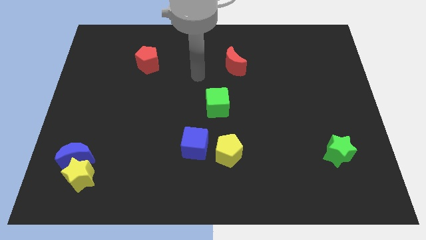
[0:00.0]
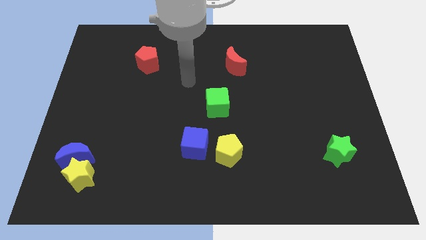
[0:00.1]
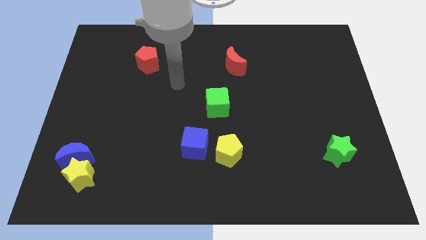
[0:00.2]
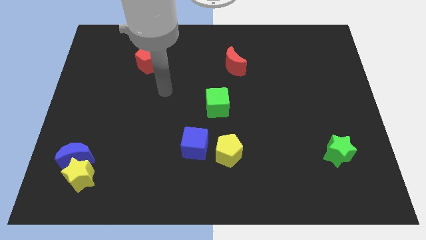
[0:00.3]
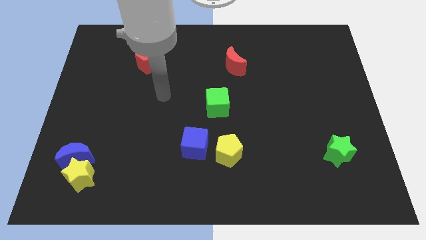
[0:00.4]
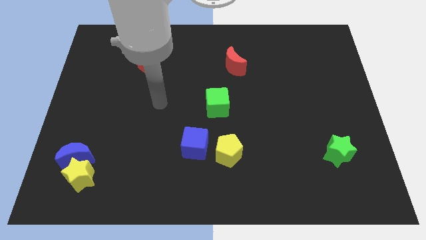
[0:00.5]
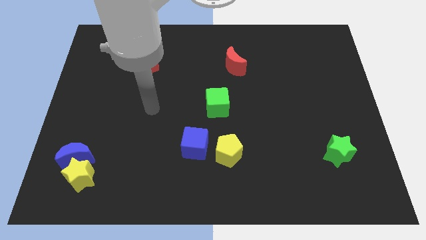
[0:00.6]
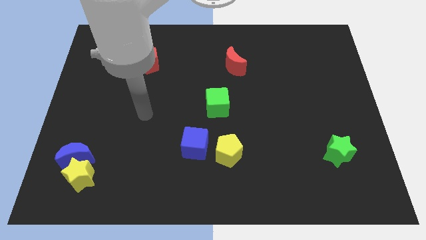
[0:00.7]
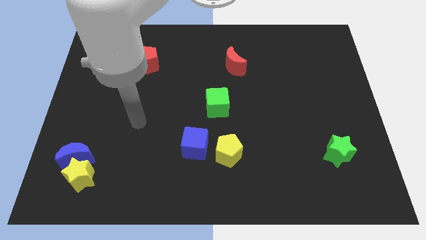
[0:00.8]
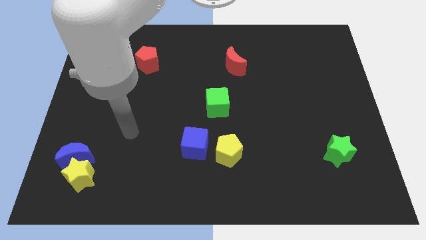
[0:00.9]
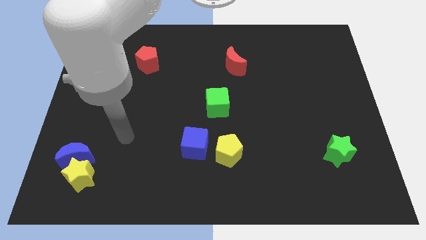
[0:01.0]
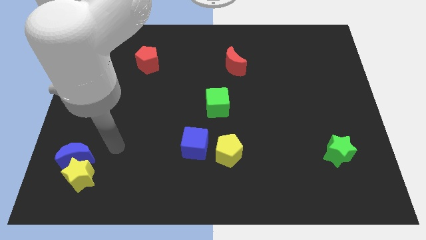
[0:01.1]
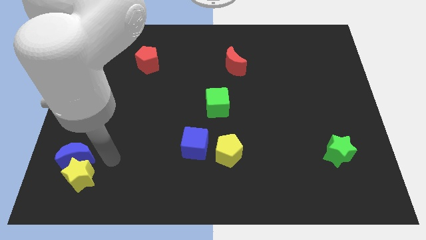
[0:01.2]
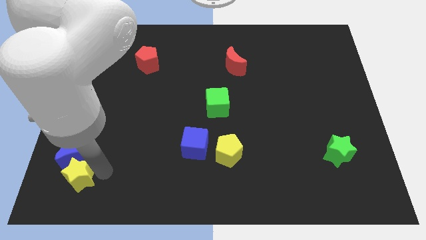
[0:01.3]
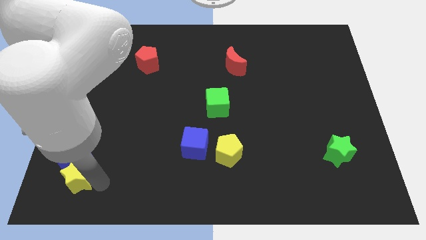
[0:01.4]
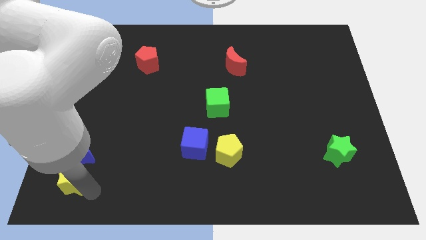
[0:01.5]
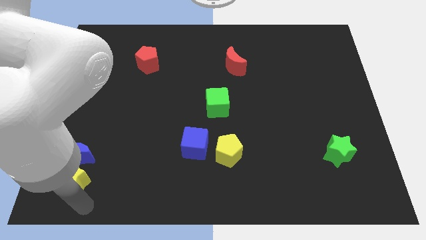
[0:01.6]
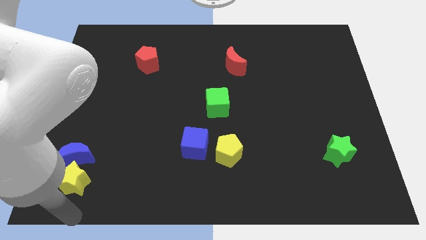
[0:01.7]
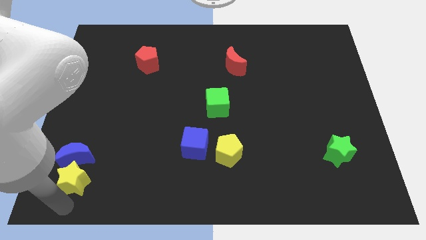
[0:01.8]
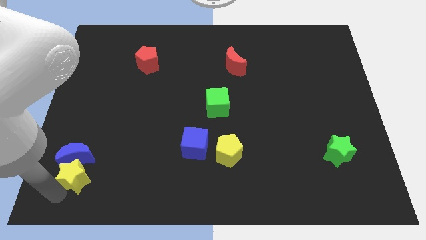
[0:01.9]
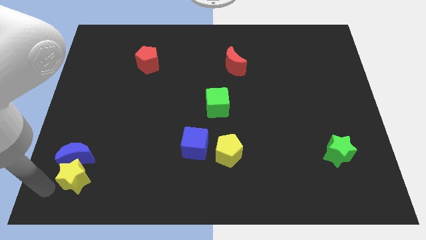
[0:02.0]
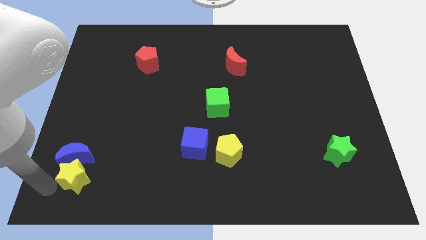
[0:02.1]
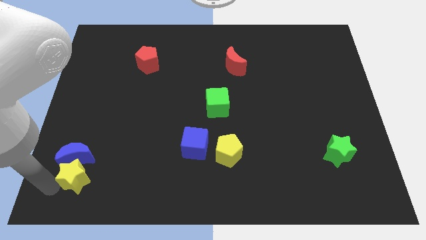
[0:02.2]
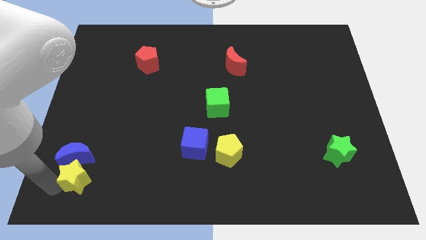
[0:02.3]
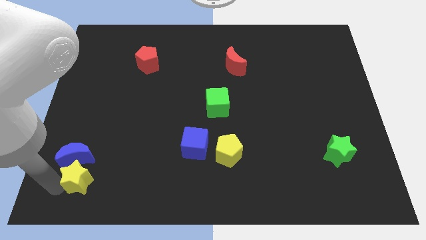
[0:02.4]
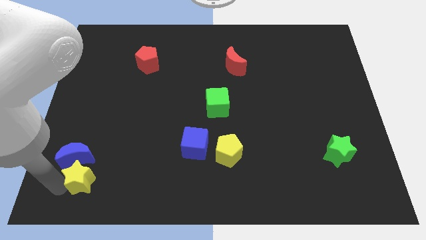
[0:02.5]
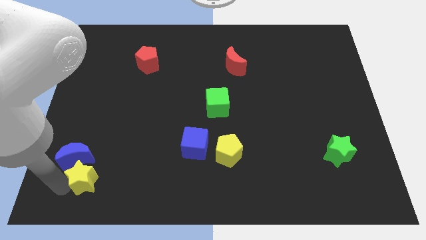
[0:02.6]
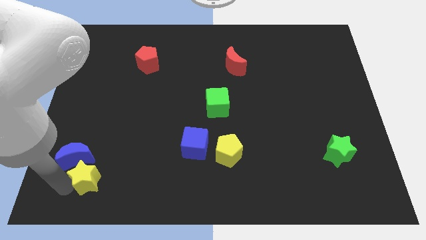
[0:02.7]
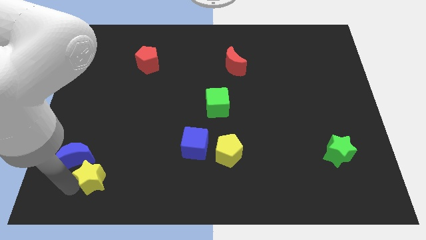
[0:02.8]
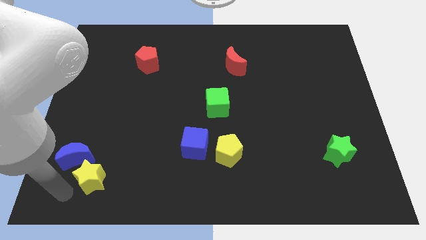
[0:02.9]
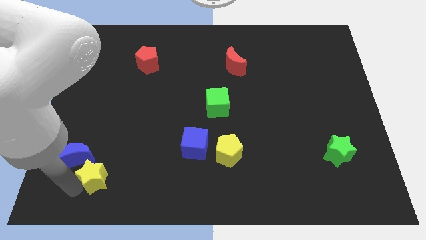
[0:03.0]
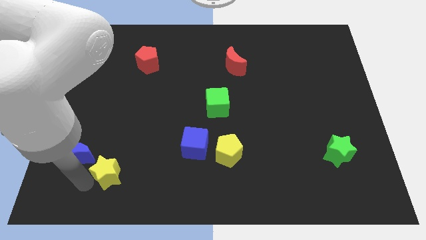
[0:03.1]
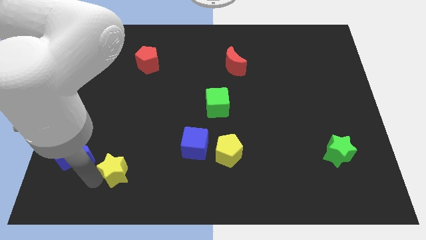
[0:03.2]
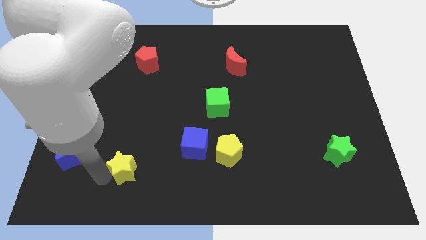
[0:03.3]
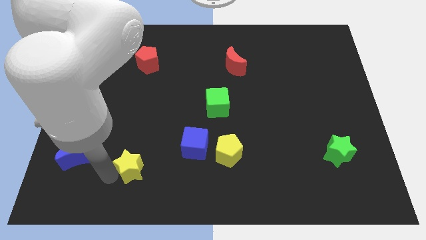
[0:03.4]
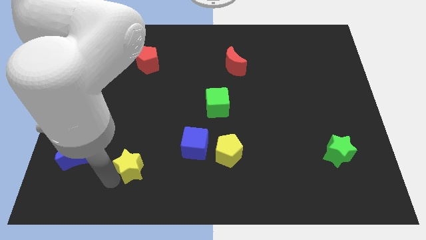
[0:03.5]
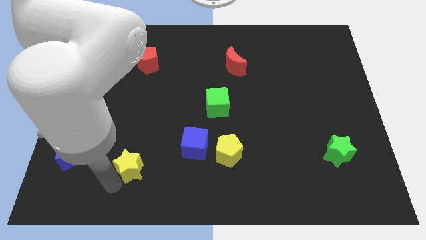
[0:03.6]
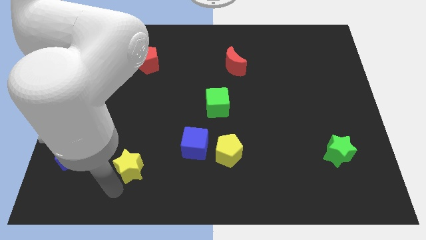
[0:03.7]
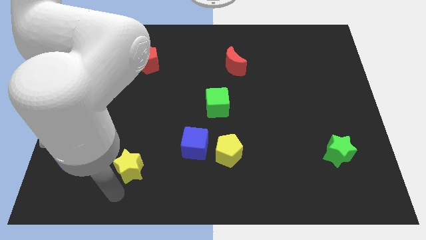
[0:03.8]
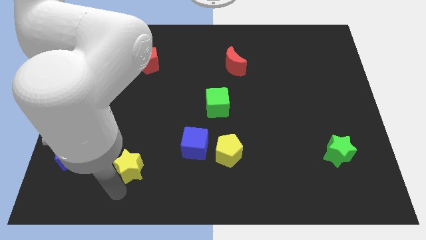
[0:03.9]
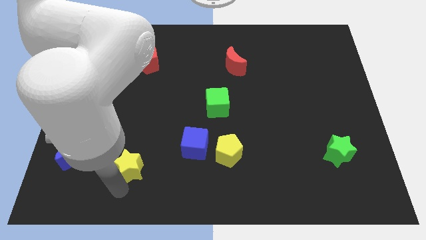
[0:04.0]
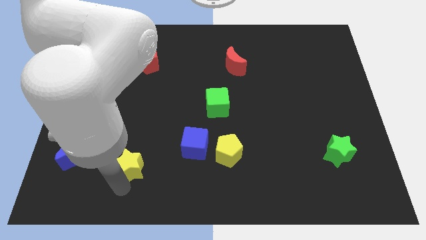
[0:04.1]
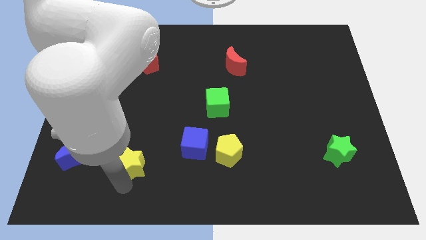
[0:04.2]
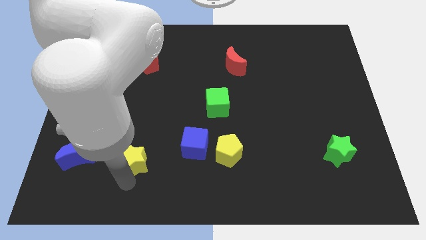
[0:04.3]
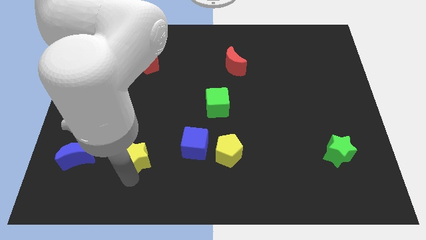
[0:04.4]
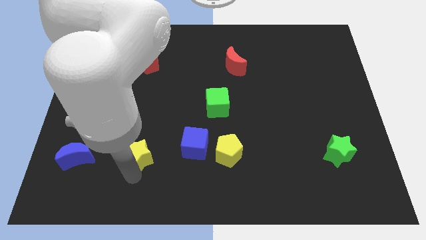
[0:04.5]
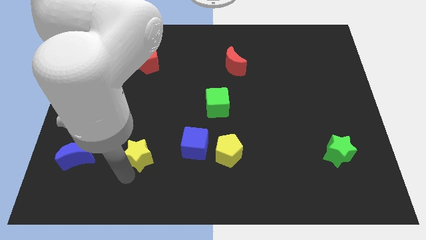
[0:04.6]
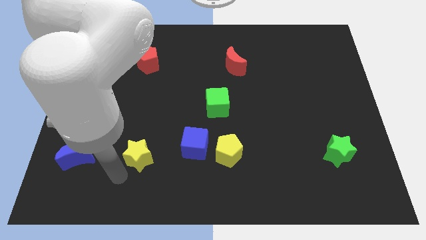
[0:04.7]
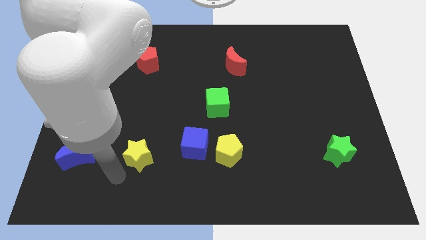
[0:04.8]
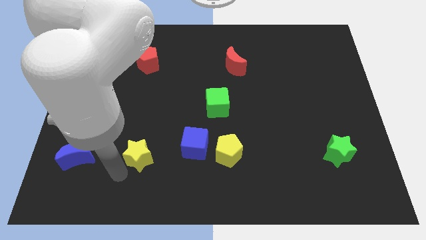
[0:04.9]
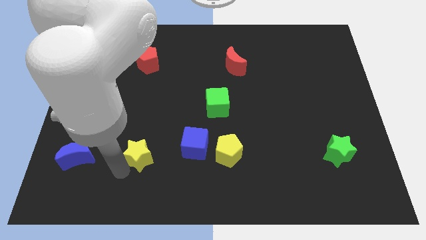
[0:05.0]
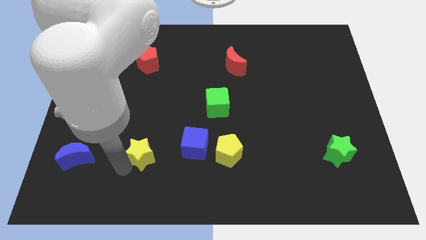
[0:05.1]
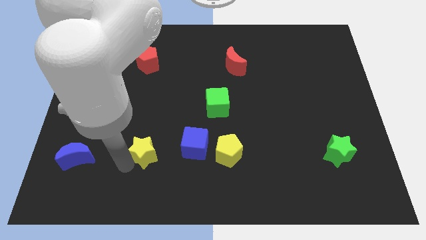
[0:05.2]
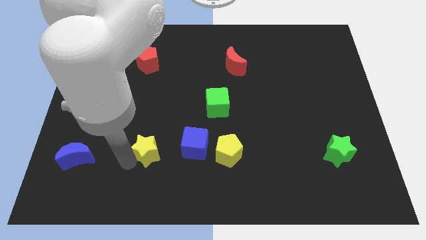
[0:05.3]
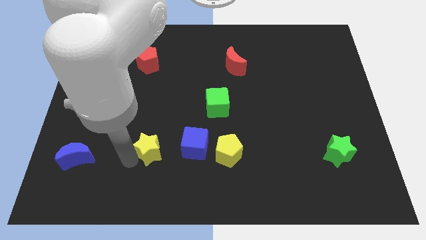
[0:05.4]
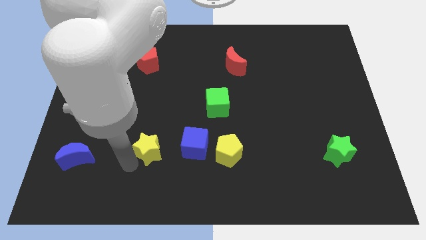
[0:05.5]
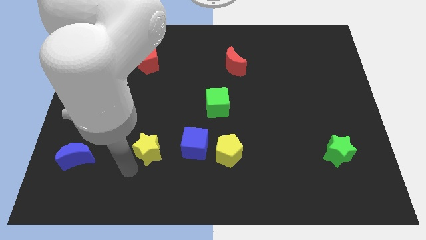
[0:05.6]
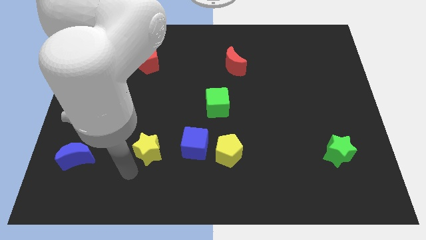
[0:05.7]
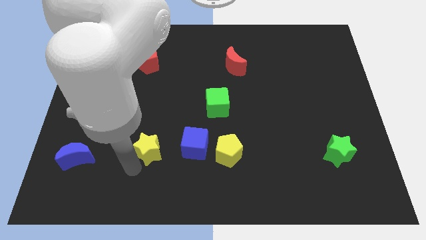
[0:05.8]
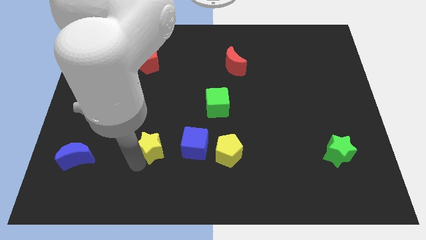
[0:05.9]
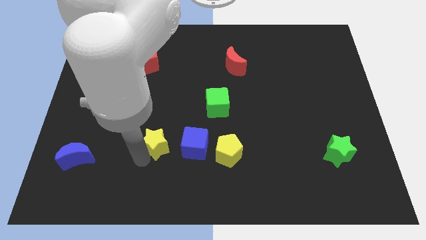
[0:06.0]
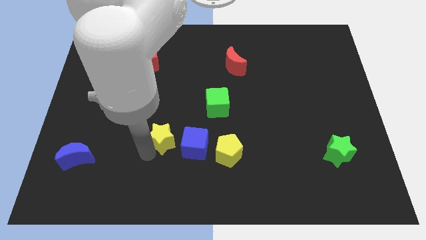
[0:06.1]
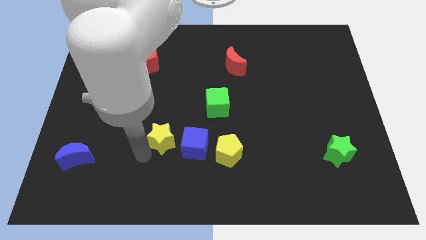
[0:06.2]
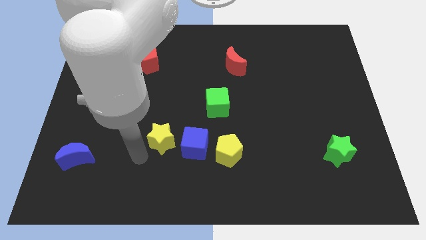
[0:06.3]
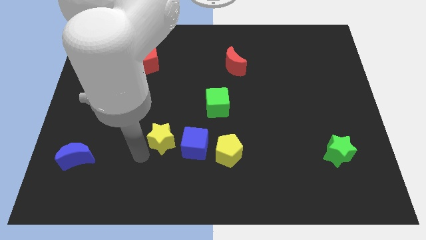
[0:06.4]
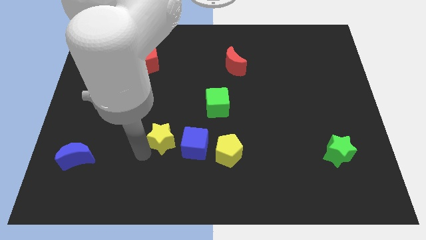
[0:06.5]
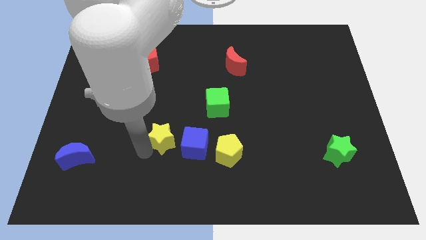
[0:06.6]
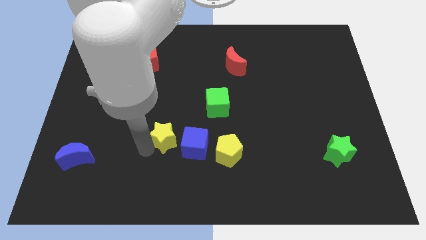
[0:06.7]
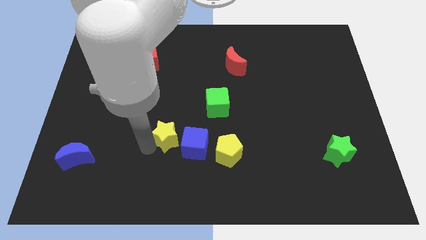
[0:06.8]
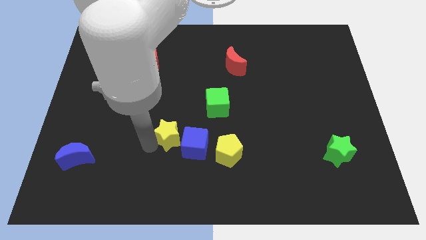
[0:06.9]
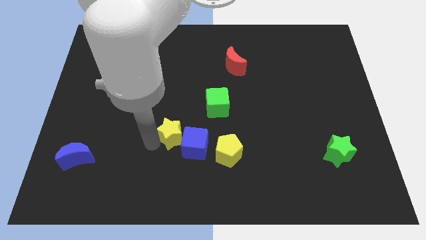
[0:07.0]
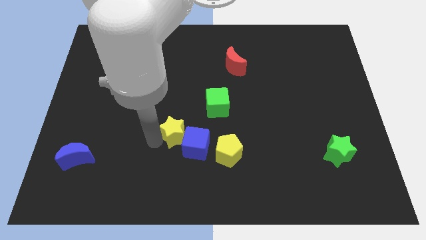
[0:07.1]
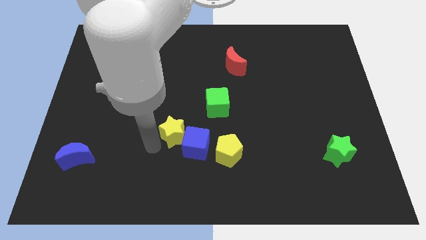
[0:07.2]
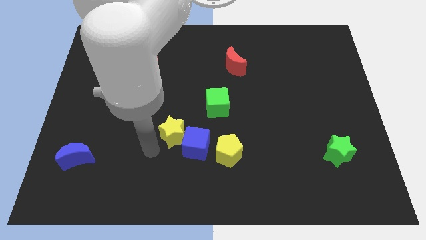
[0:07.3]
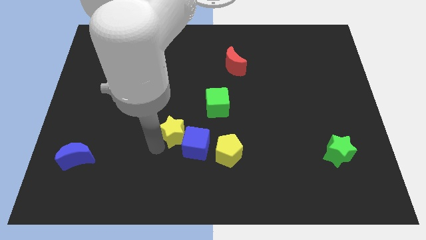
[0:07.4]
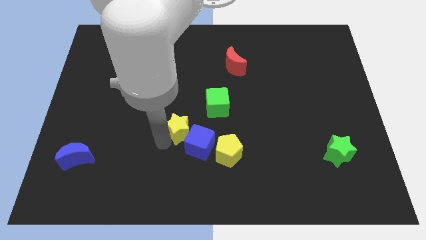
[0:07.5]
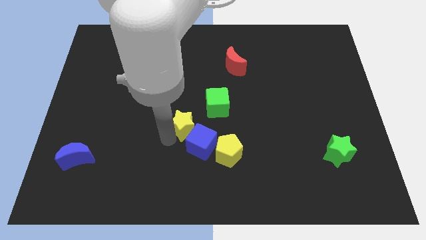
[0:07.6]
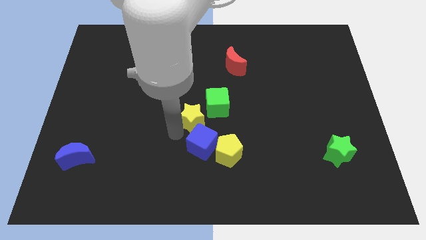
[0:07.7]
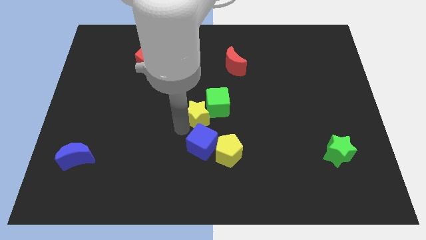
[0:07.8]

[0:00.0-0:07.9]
move the yellow star to the green cube
